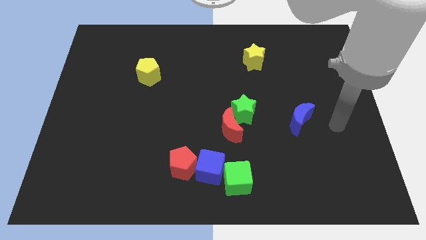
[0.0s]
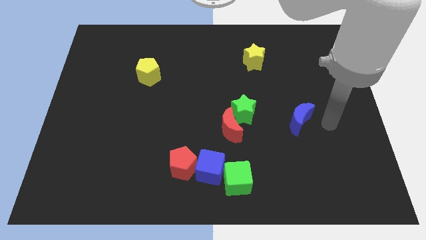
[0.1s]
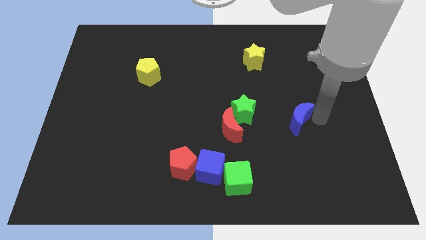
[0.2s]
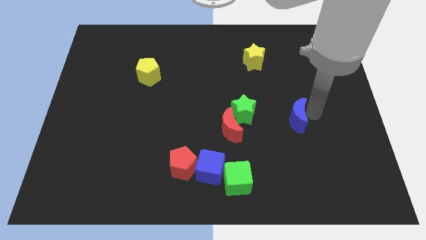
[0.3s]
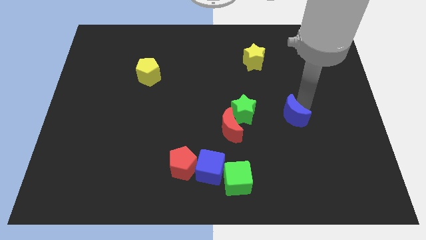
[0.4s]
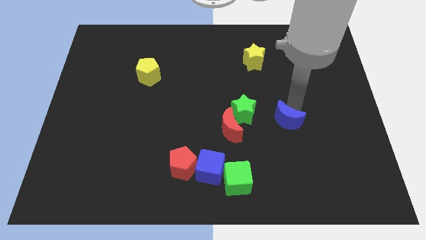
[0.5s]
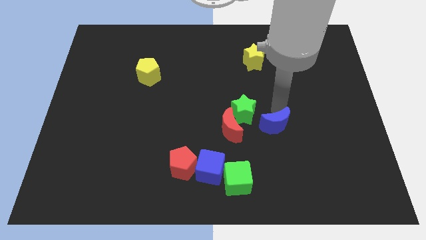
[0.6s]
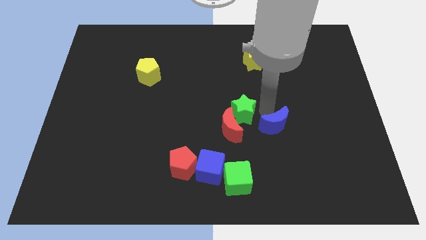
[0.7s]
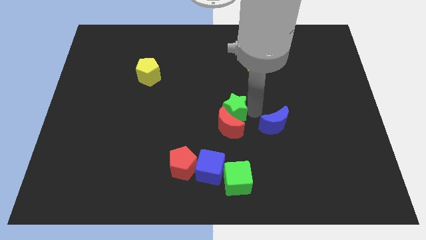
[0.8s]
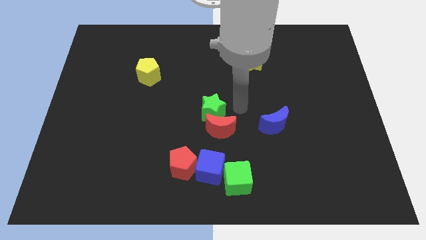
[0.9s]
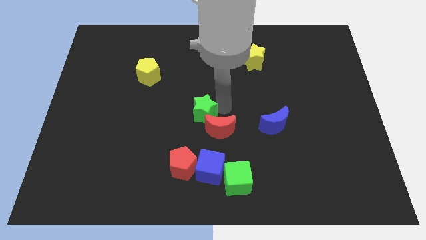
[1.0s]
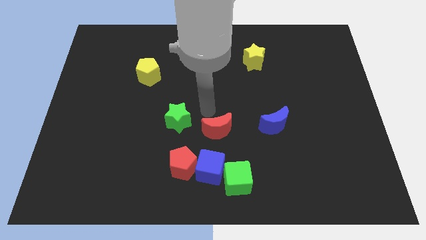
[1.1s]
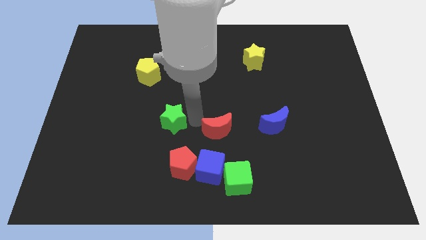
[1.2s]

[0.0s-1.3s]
move the red moon away from the green star

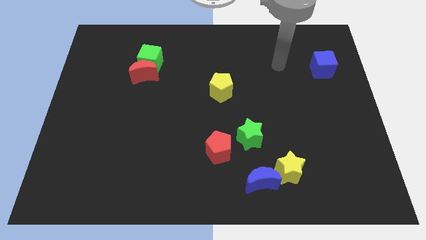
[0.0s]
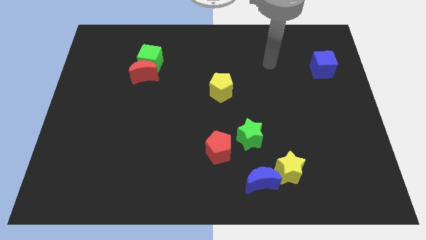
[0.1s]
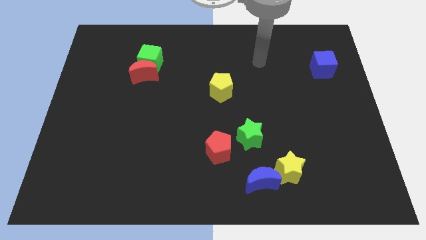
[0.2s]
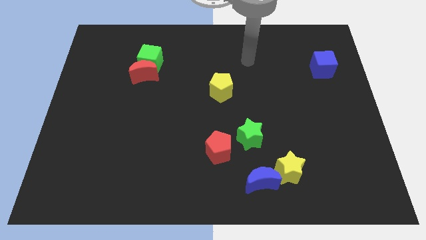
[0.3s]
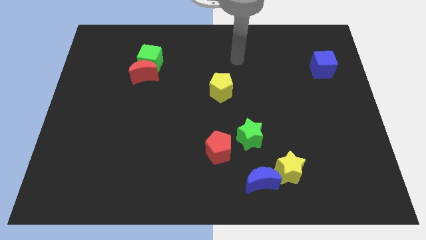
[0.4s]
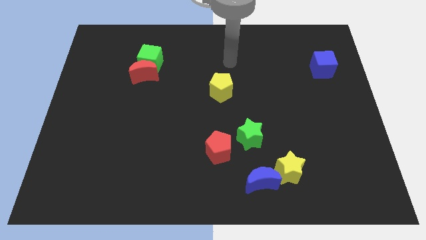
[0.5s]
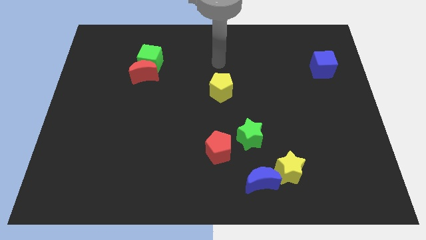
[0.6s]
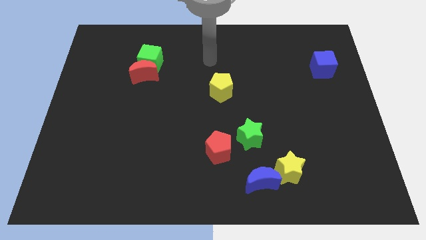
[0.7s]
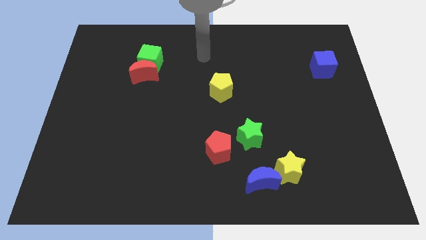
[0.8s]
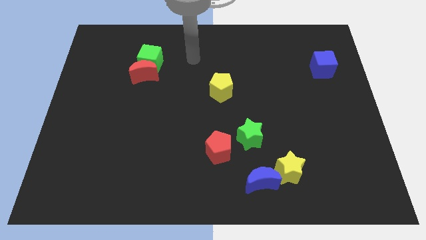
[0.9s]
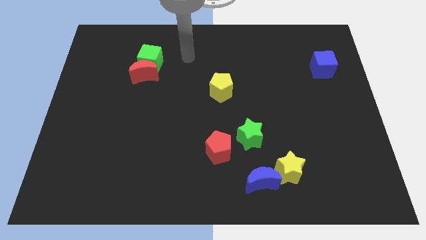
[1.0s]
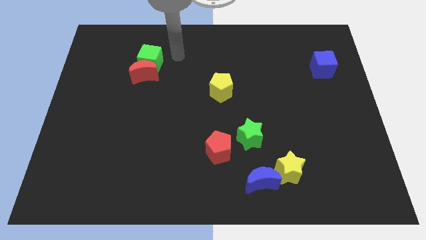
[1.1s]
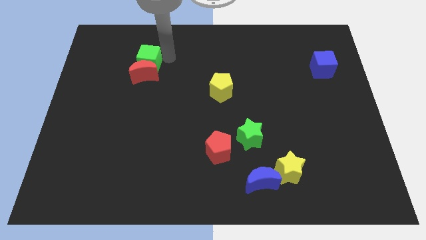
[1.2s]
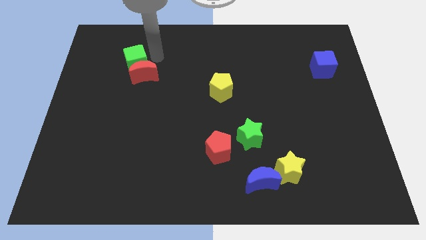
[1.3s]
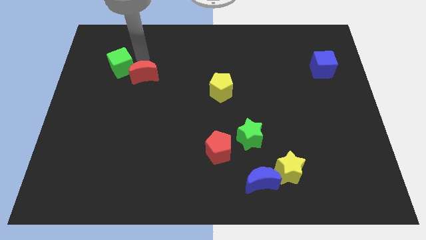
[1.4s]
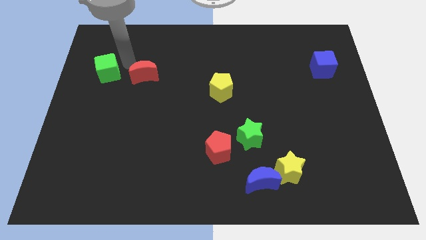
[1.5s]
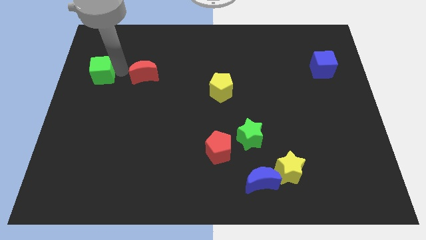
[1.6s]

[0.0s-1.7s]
separate the red moon from the green cube

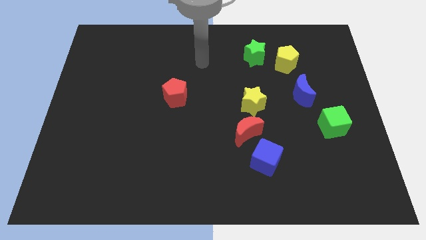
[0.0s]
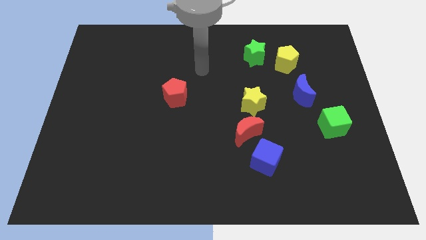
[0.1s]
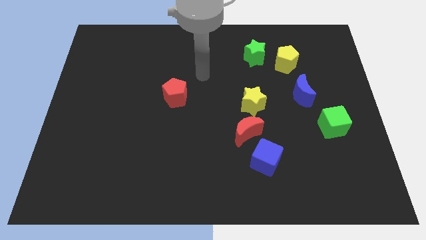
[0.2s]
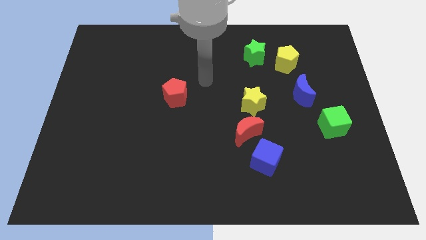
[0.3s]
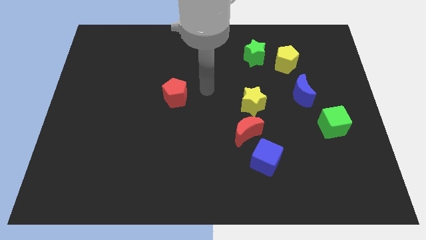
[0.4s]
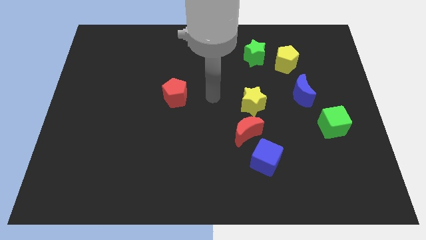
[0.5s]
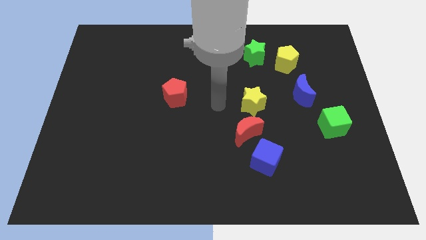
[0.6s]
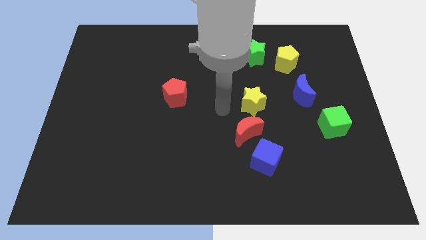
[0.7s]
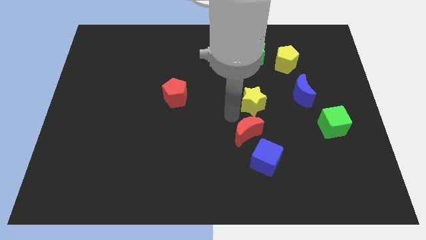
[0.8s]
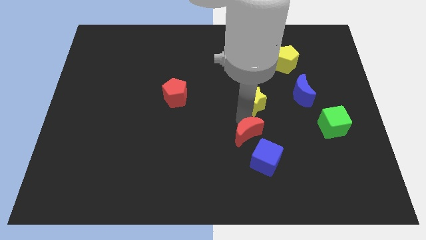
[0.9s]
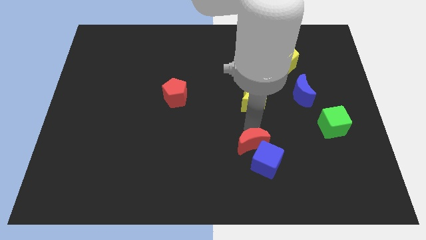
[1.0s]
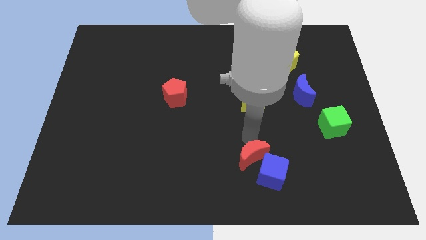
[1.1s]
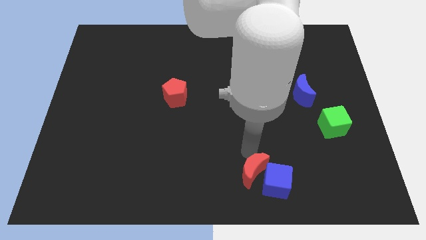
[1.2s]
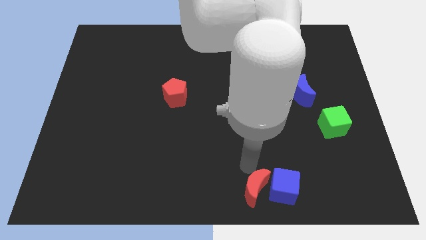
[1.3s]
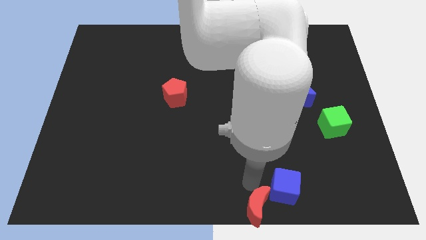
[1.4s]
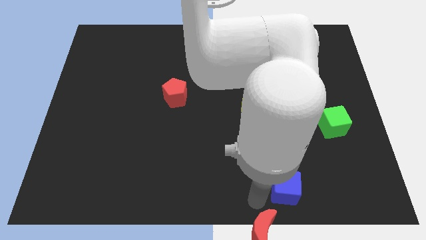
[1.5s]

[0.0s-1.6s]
separate the blue cube from the red moon

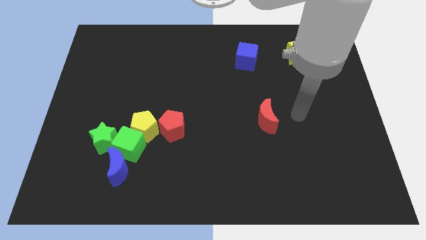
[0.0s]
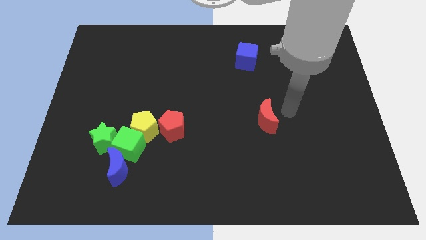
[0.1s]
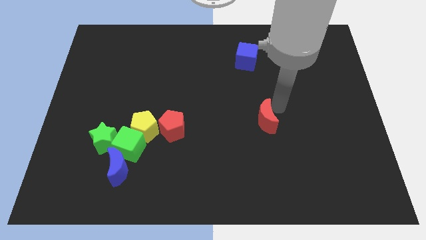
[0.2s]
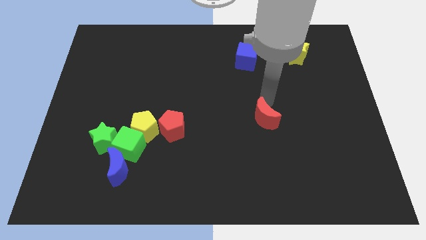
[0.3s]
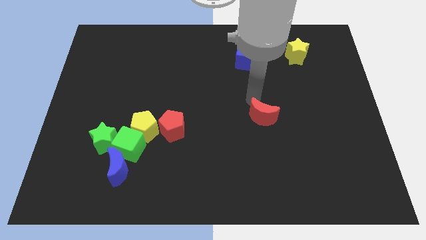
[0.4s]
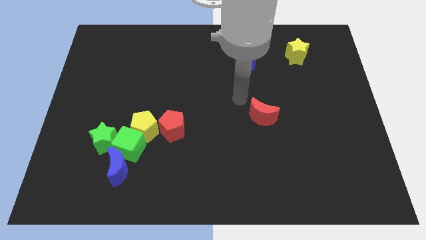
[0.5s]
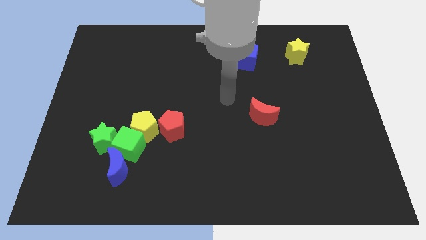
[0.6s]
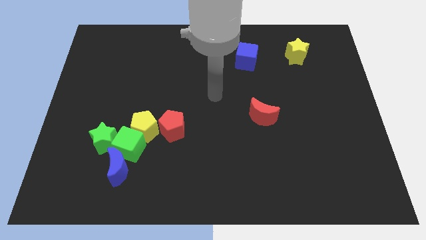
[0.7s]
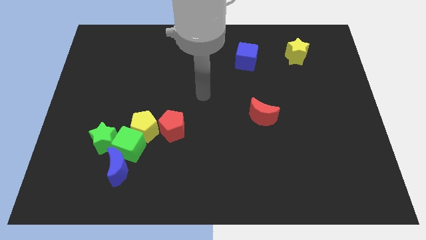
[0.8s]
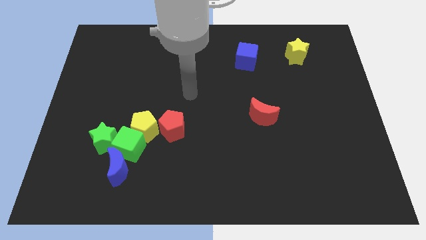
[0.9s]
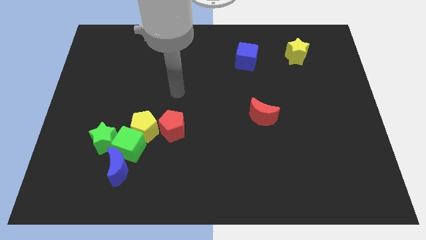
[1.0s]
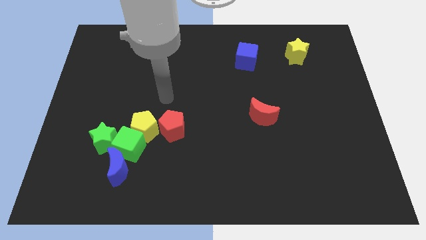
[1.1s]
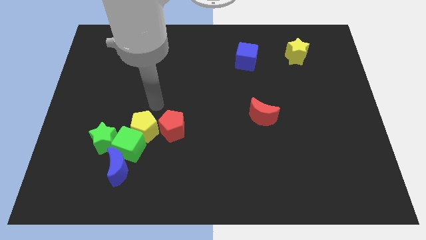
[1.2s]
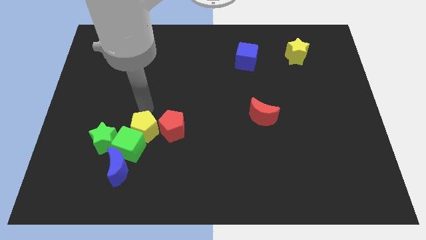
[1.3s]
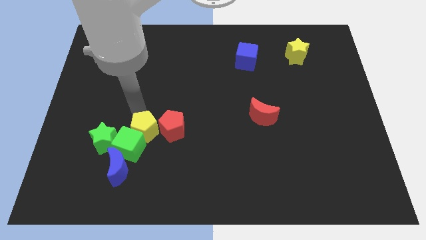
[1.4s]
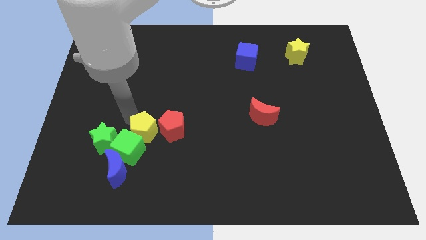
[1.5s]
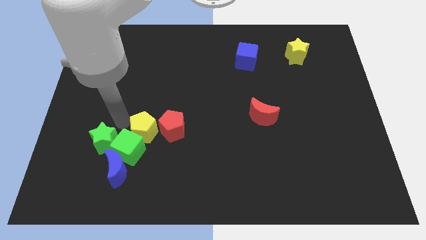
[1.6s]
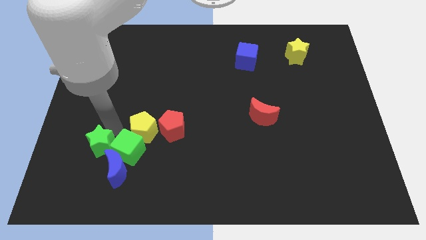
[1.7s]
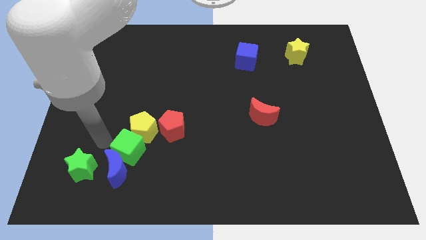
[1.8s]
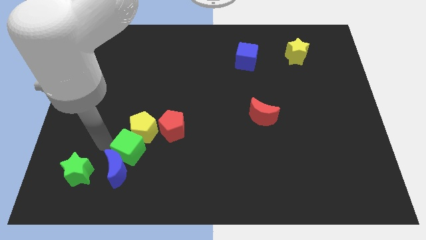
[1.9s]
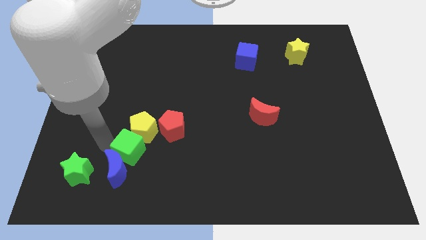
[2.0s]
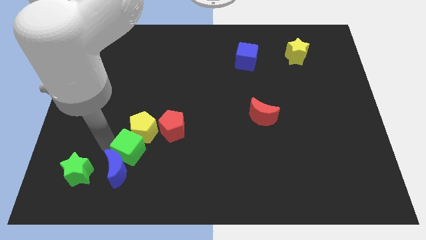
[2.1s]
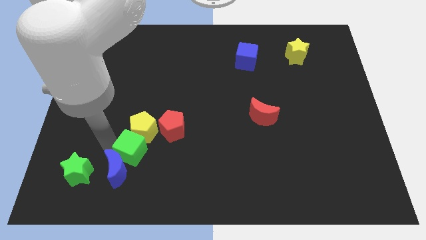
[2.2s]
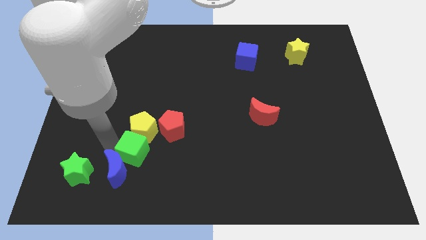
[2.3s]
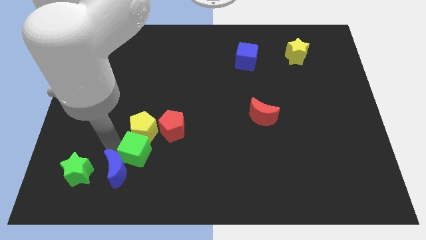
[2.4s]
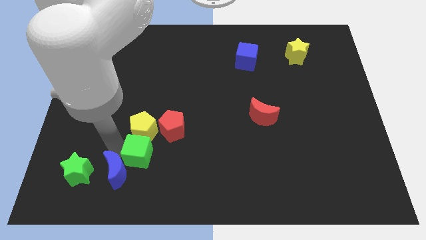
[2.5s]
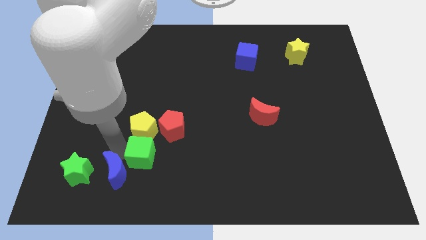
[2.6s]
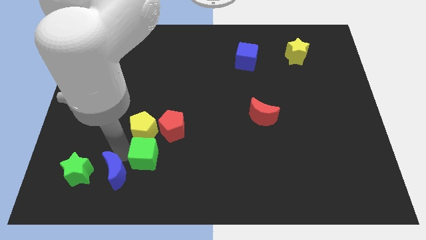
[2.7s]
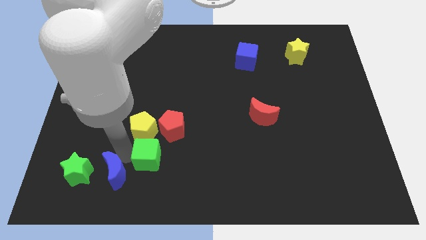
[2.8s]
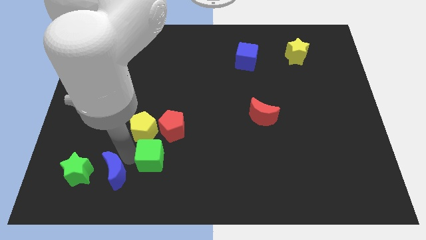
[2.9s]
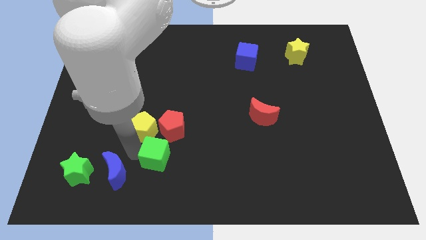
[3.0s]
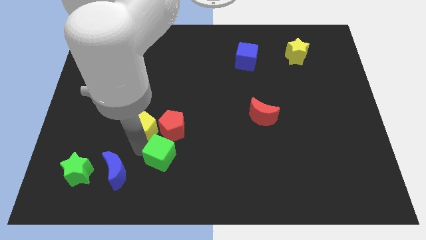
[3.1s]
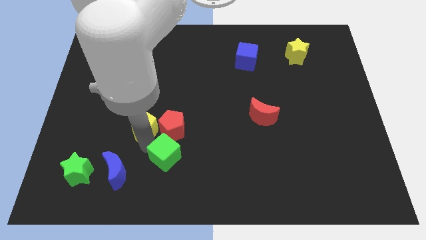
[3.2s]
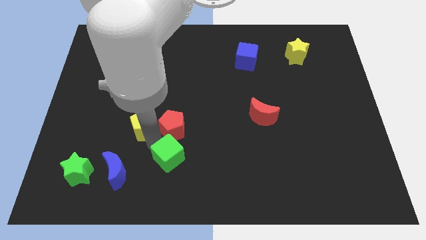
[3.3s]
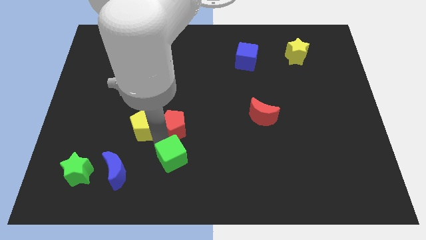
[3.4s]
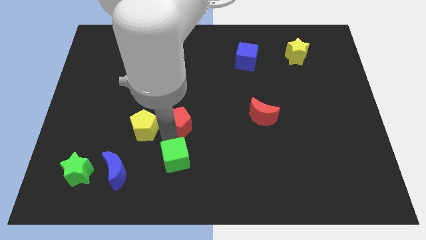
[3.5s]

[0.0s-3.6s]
pull the green cube apart from the group of blocks

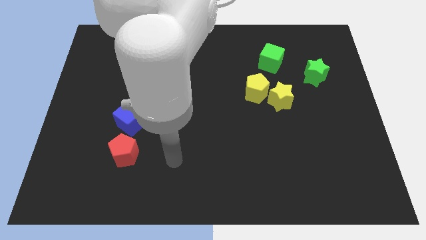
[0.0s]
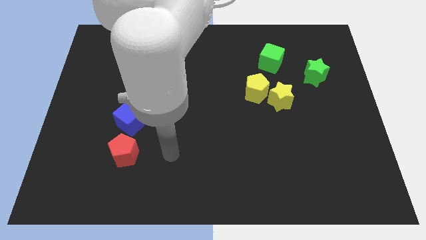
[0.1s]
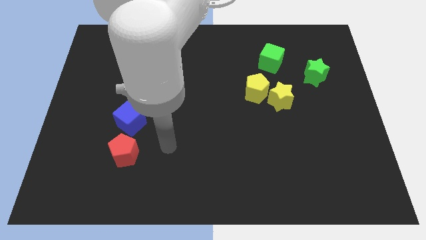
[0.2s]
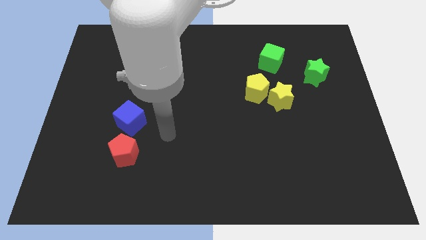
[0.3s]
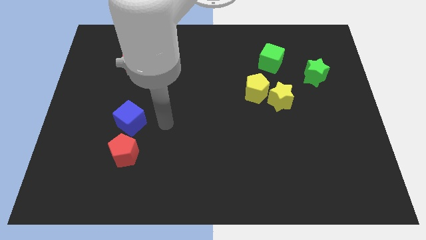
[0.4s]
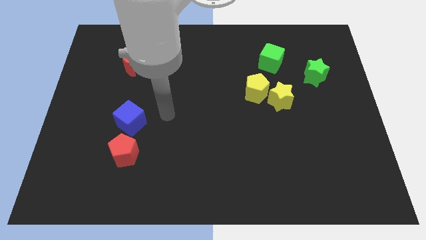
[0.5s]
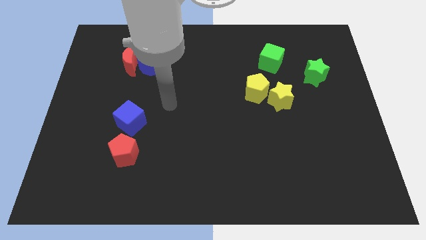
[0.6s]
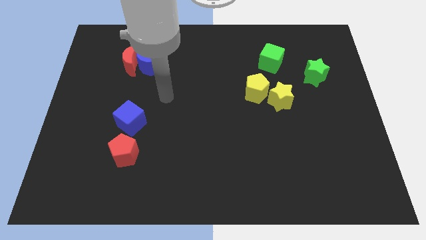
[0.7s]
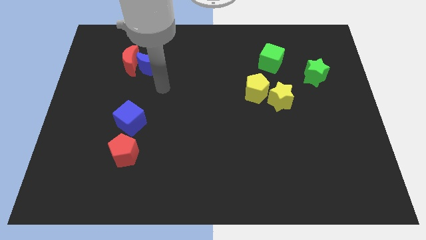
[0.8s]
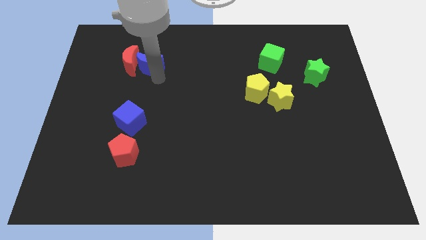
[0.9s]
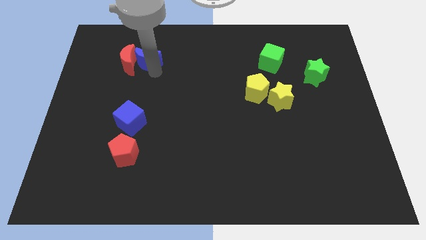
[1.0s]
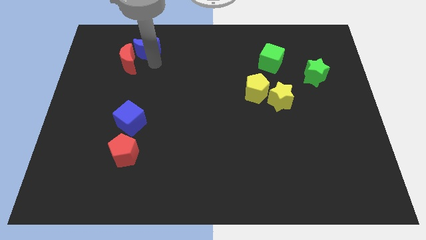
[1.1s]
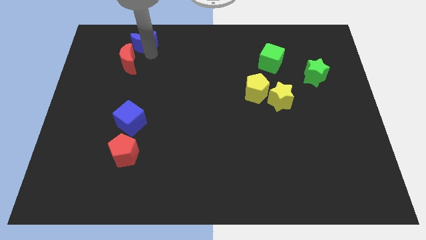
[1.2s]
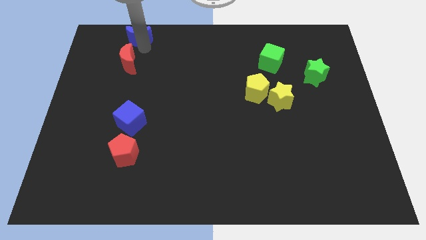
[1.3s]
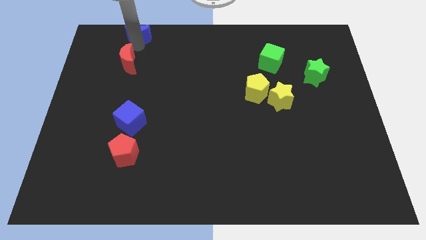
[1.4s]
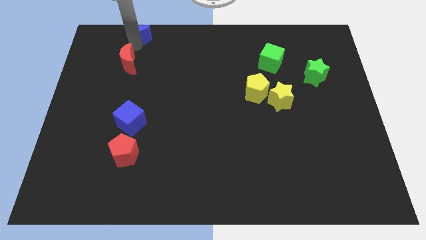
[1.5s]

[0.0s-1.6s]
move the red moon away from the blue moon
